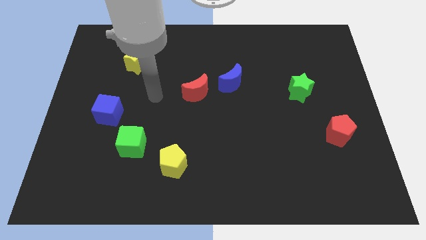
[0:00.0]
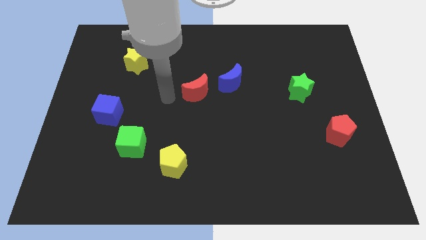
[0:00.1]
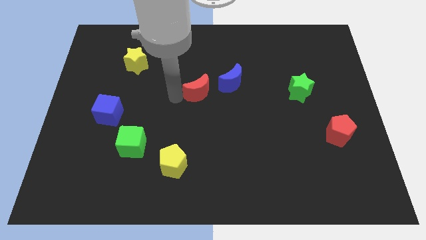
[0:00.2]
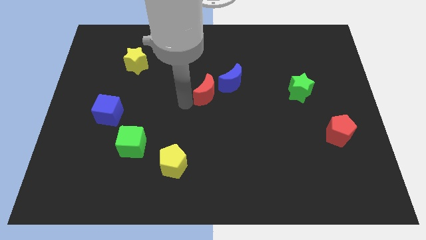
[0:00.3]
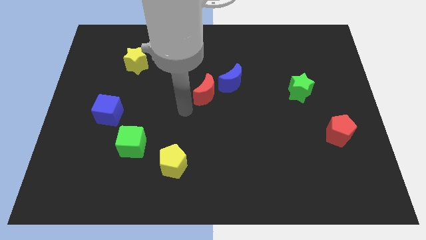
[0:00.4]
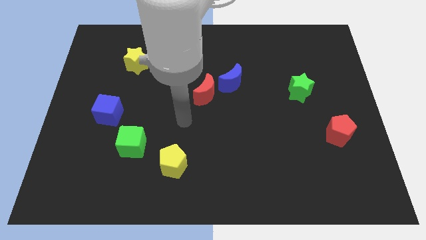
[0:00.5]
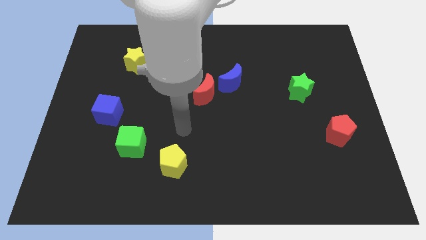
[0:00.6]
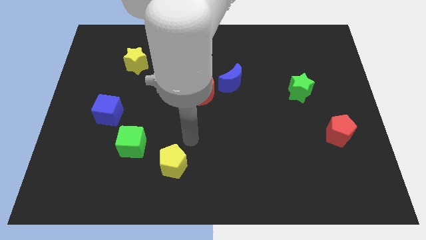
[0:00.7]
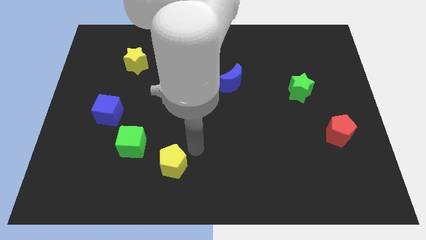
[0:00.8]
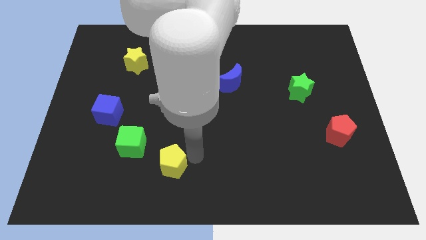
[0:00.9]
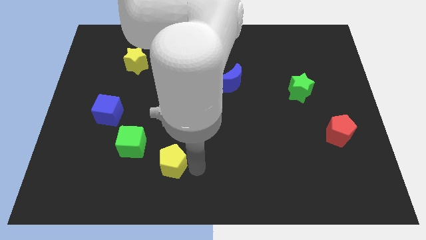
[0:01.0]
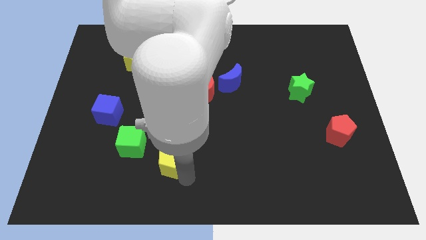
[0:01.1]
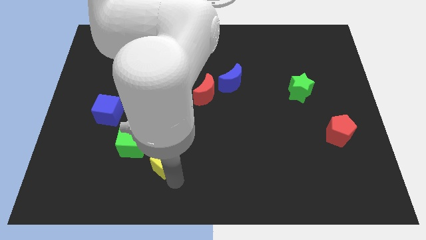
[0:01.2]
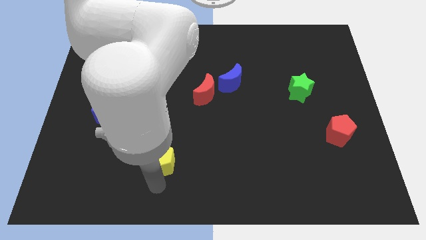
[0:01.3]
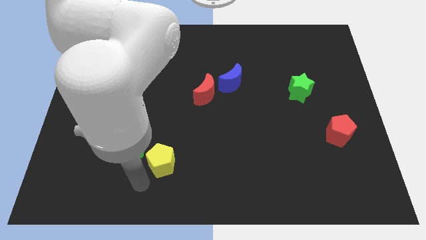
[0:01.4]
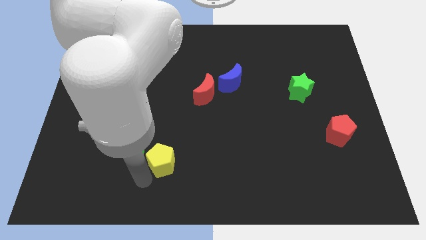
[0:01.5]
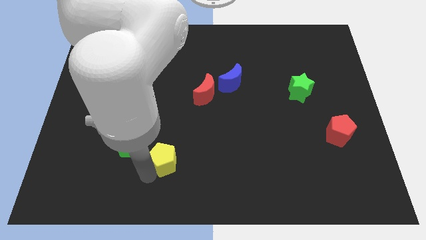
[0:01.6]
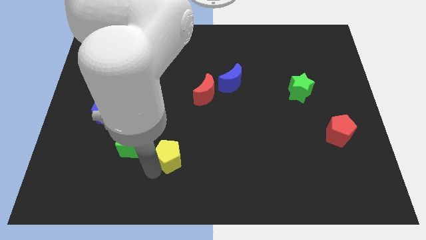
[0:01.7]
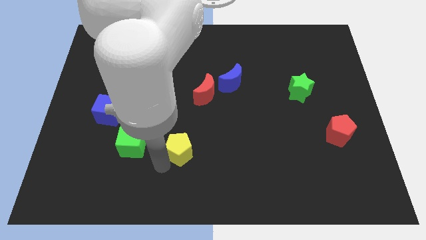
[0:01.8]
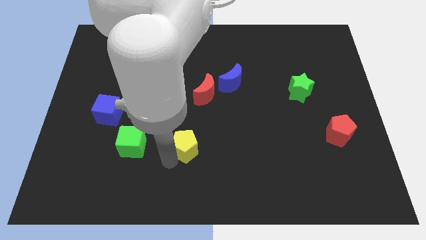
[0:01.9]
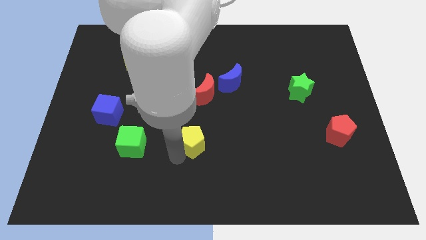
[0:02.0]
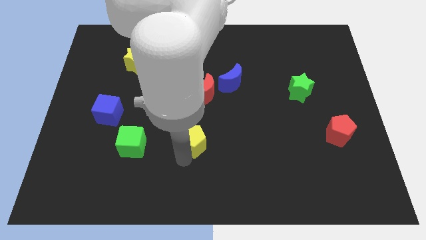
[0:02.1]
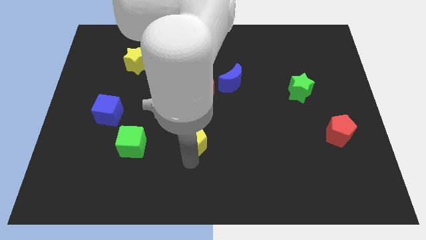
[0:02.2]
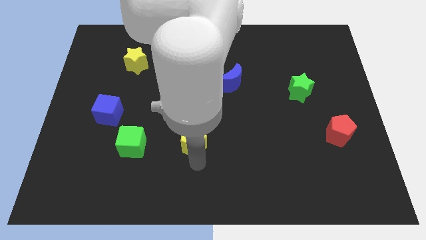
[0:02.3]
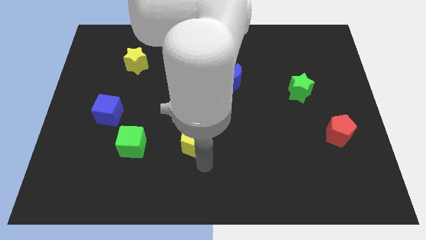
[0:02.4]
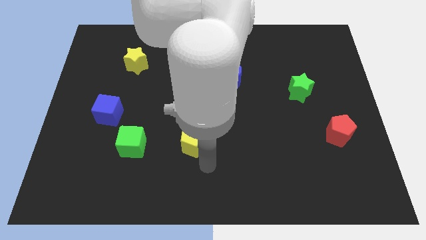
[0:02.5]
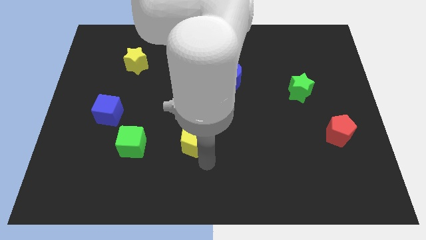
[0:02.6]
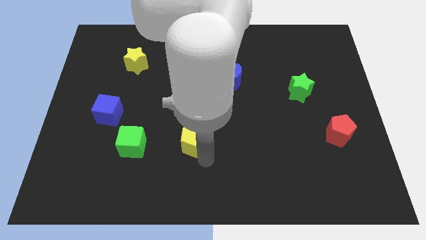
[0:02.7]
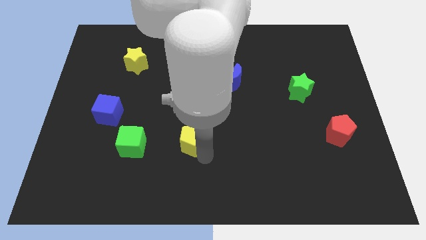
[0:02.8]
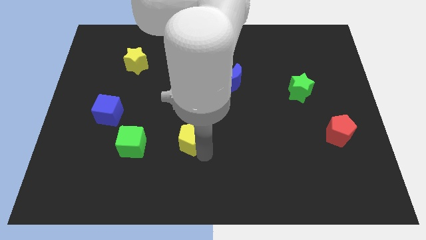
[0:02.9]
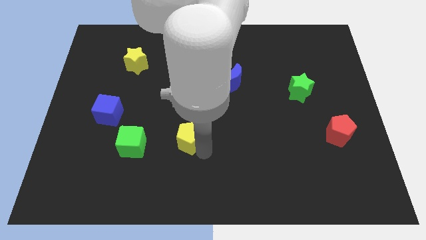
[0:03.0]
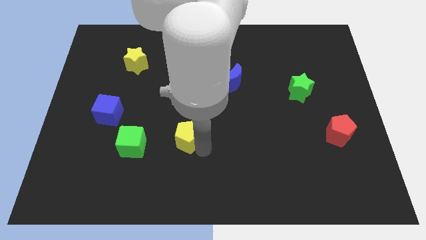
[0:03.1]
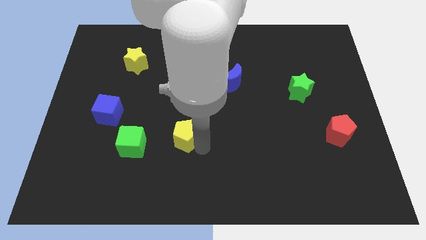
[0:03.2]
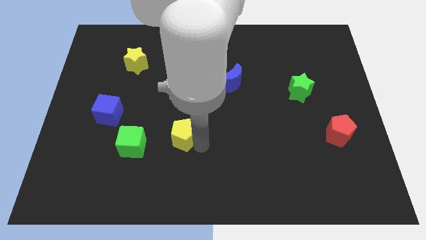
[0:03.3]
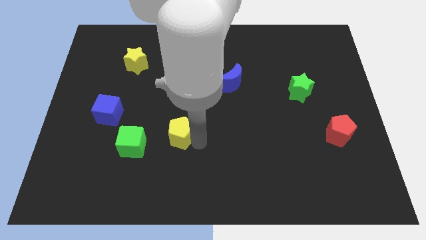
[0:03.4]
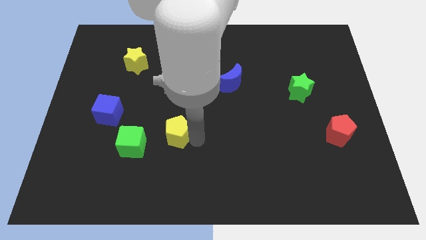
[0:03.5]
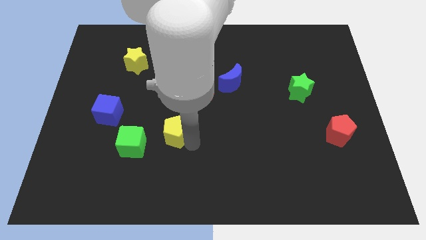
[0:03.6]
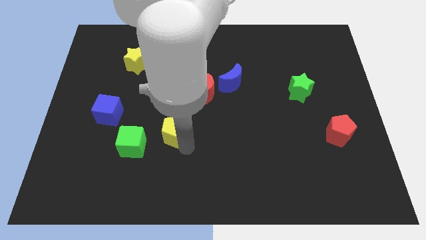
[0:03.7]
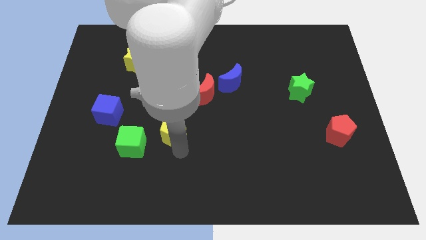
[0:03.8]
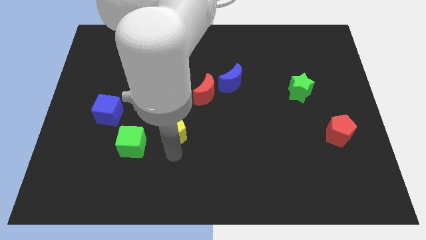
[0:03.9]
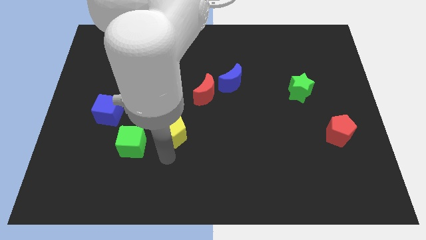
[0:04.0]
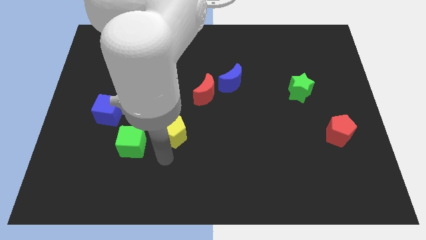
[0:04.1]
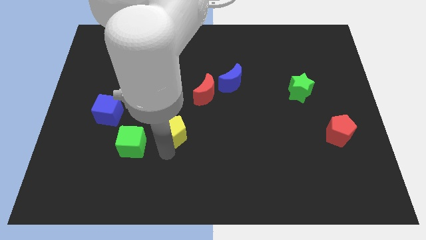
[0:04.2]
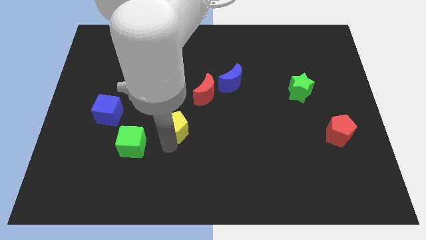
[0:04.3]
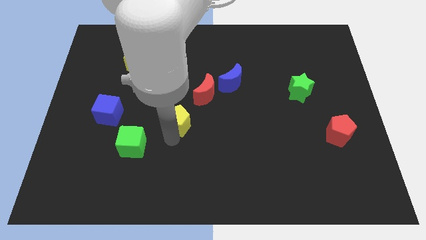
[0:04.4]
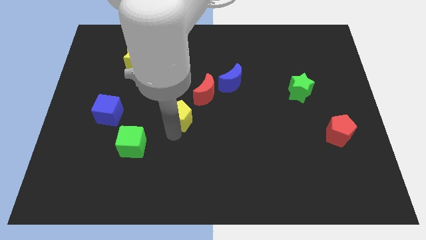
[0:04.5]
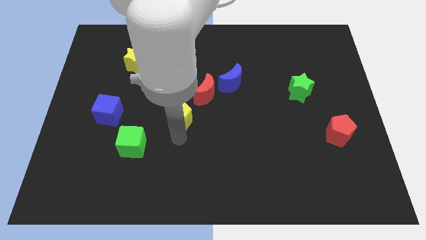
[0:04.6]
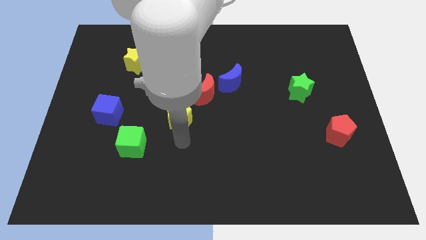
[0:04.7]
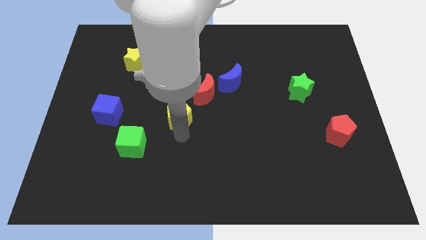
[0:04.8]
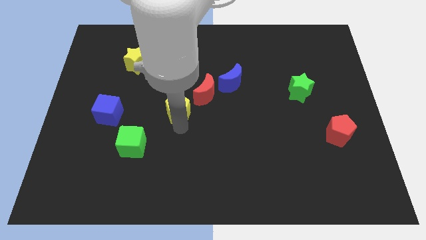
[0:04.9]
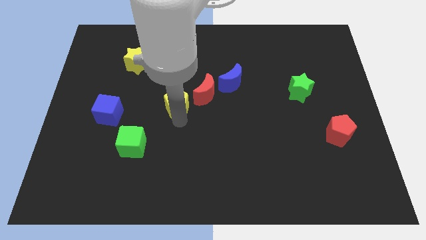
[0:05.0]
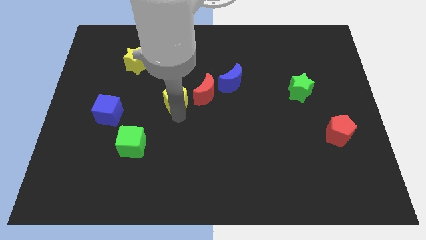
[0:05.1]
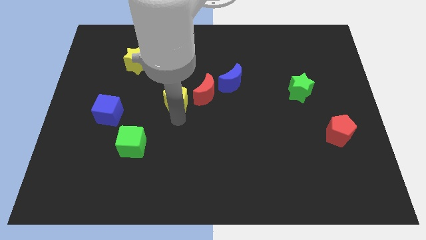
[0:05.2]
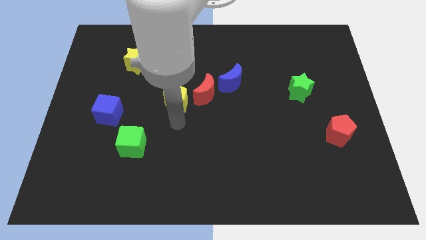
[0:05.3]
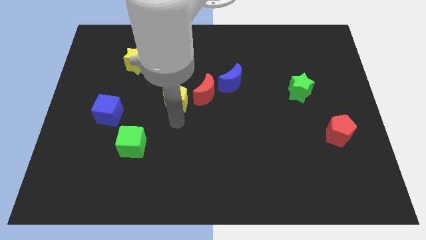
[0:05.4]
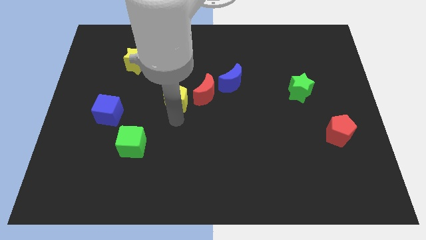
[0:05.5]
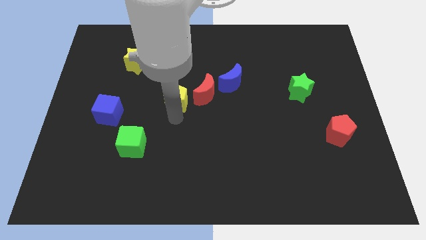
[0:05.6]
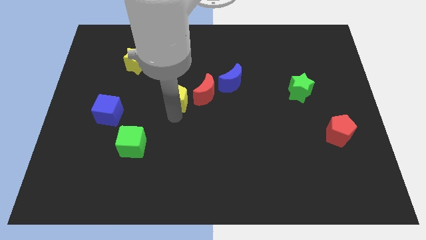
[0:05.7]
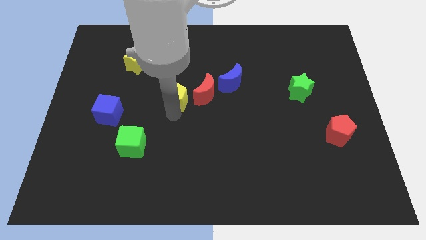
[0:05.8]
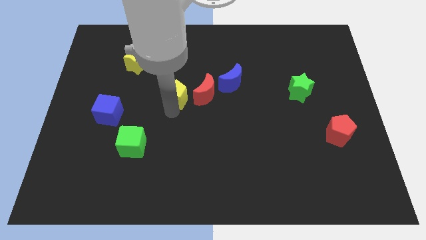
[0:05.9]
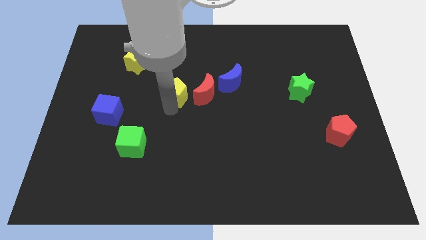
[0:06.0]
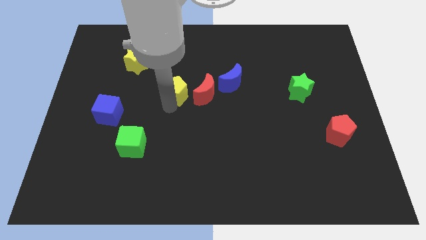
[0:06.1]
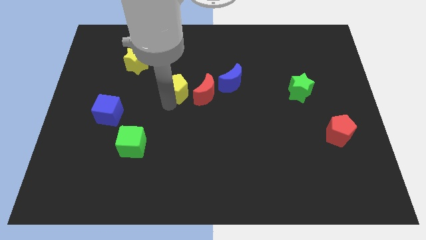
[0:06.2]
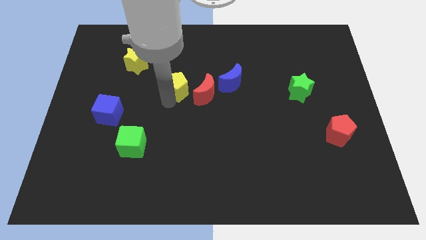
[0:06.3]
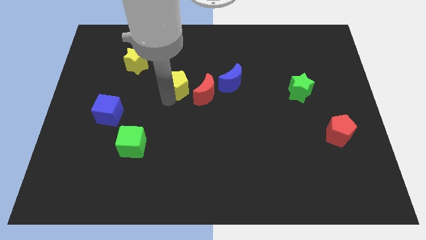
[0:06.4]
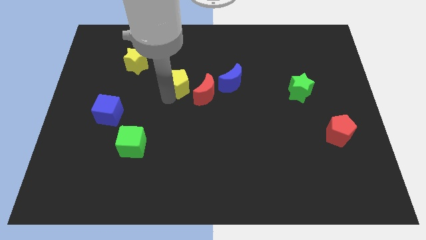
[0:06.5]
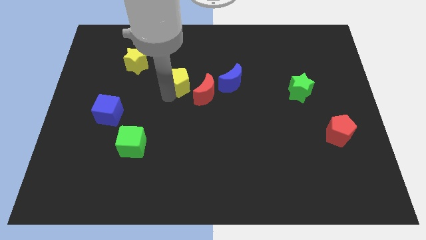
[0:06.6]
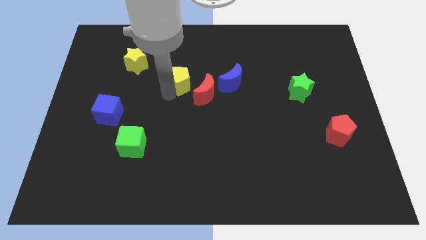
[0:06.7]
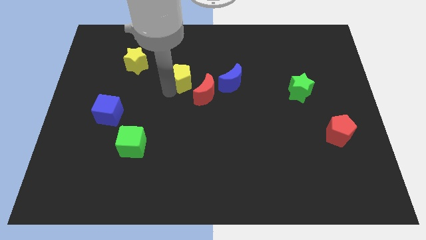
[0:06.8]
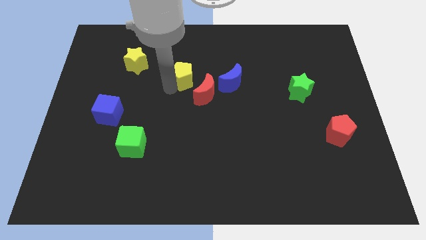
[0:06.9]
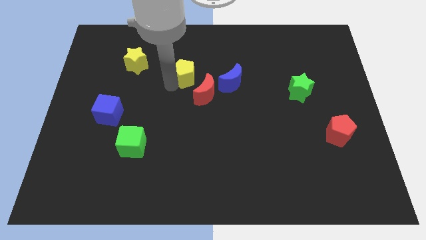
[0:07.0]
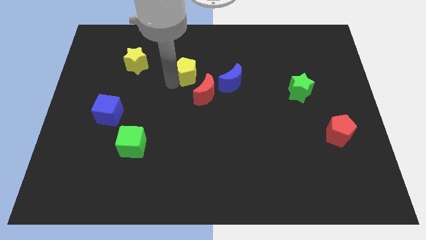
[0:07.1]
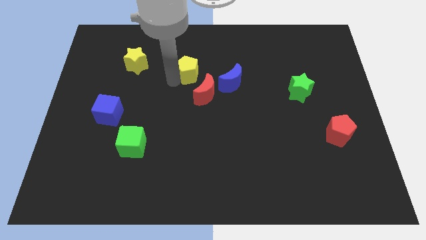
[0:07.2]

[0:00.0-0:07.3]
put the yellow pentagon to the top of the red moon
